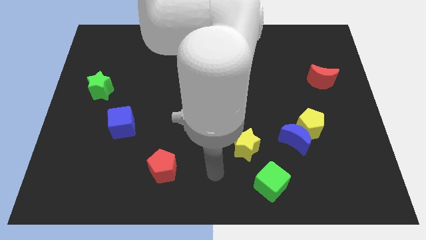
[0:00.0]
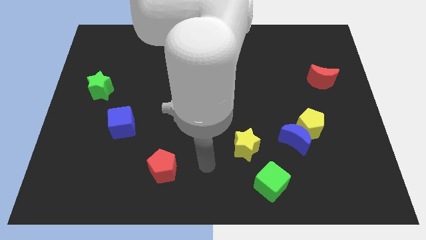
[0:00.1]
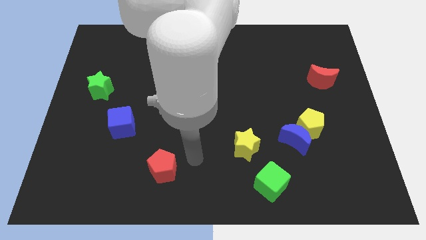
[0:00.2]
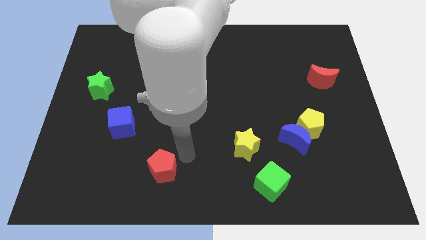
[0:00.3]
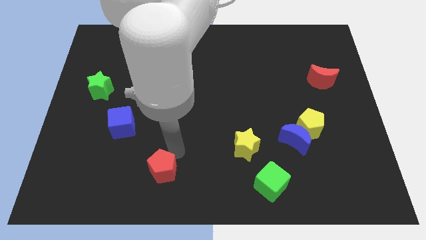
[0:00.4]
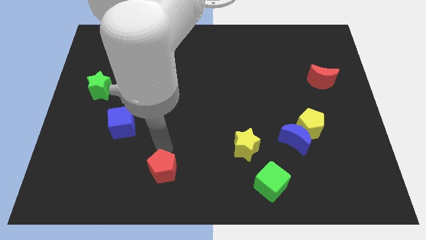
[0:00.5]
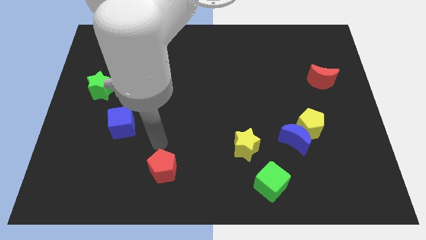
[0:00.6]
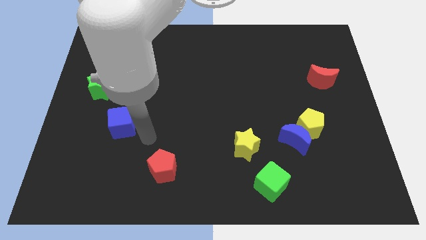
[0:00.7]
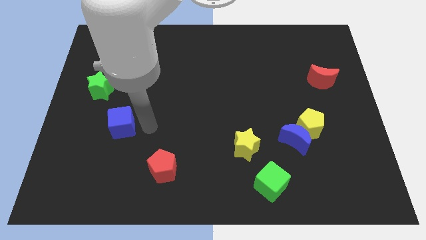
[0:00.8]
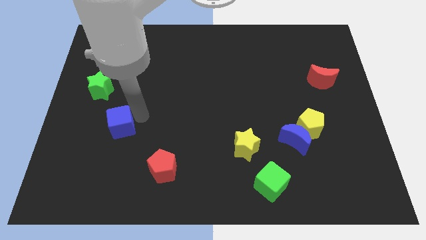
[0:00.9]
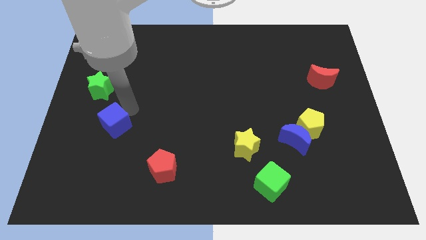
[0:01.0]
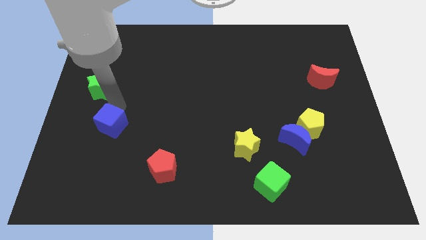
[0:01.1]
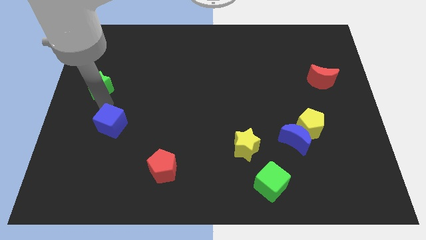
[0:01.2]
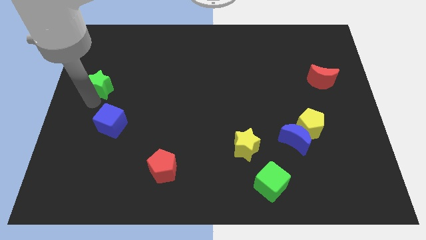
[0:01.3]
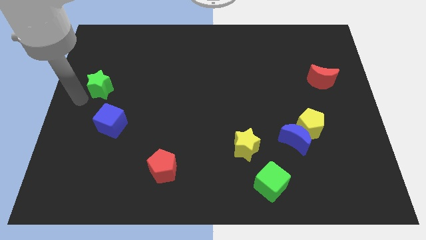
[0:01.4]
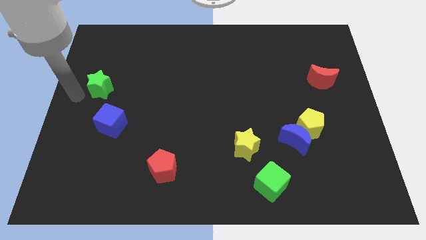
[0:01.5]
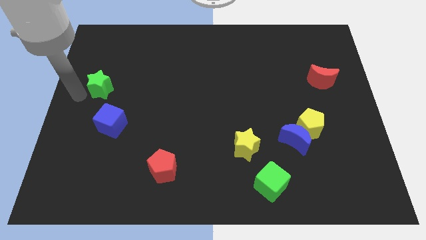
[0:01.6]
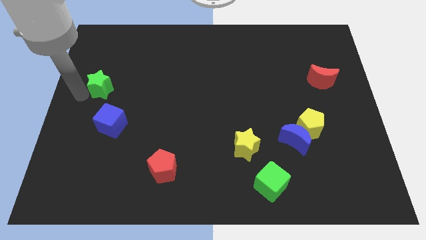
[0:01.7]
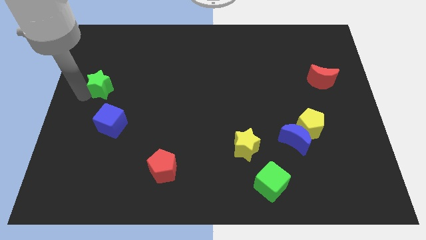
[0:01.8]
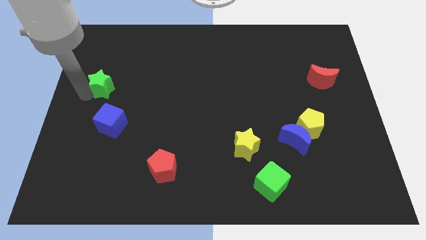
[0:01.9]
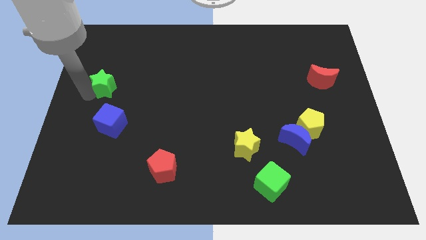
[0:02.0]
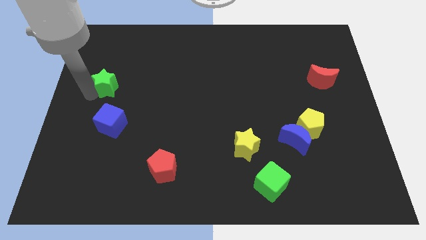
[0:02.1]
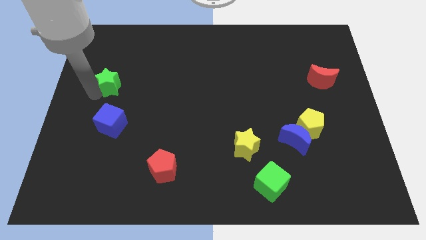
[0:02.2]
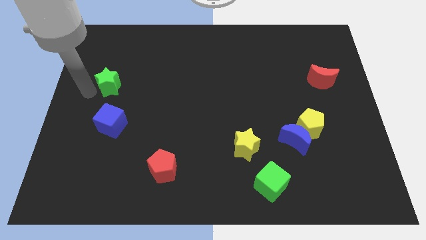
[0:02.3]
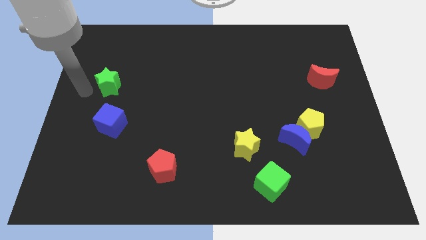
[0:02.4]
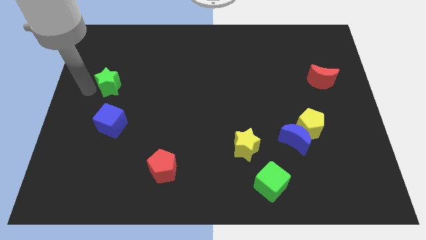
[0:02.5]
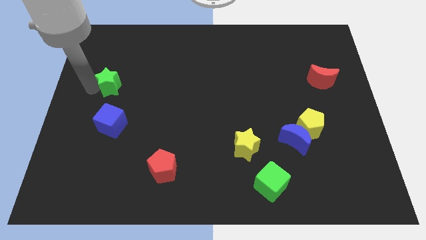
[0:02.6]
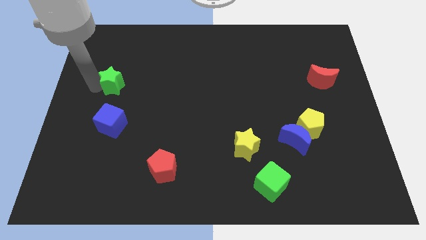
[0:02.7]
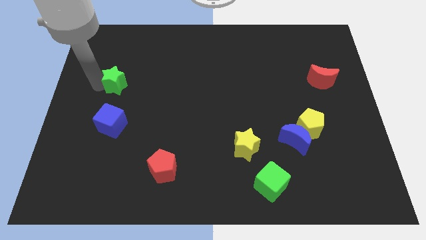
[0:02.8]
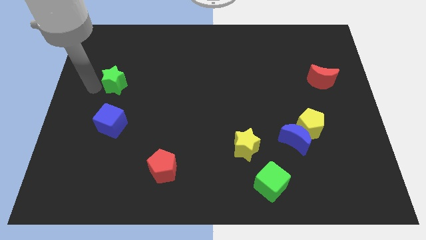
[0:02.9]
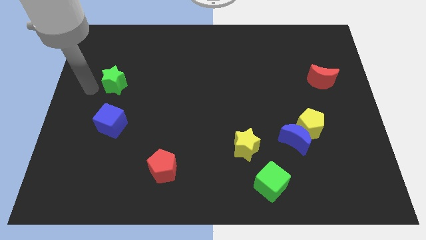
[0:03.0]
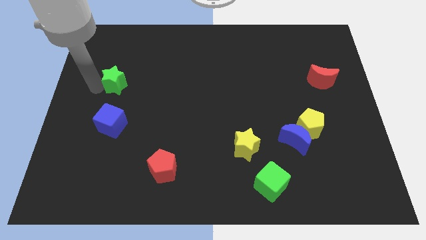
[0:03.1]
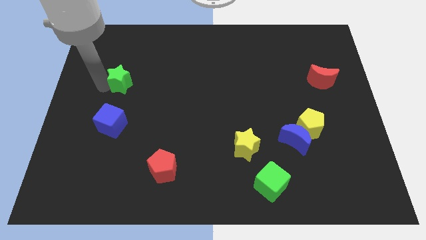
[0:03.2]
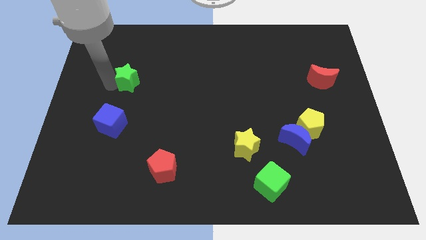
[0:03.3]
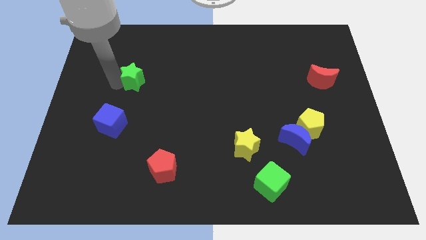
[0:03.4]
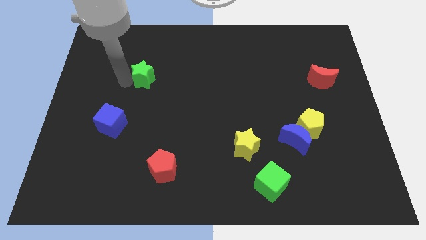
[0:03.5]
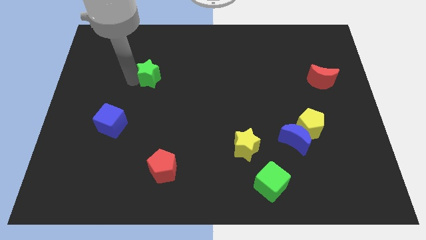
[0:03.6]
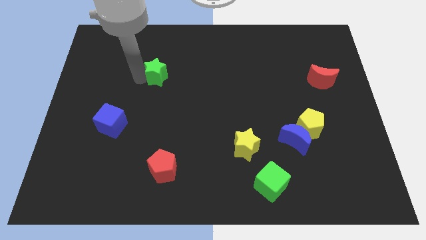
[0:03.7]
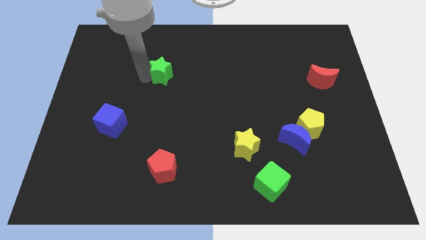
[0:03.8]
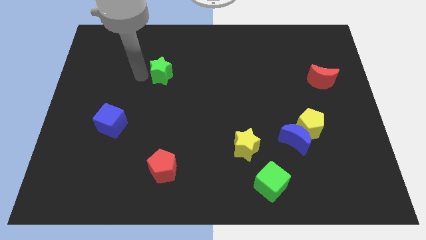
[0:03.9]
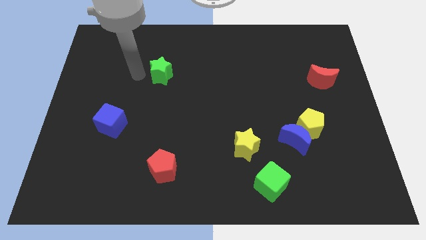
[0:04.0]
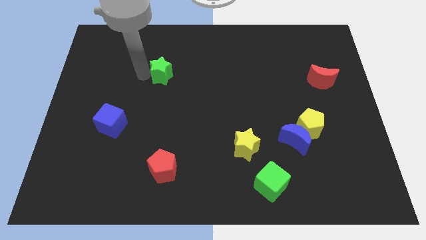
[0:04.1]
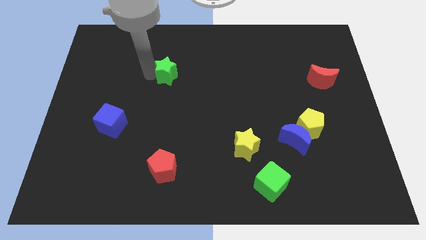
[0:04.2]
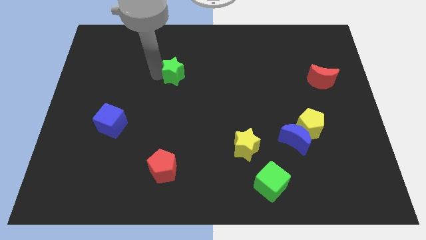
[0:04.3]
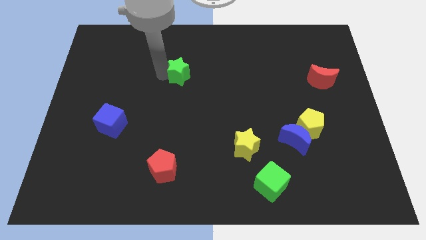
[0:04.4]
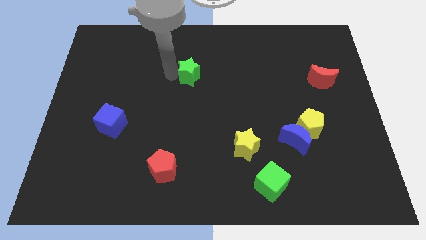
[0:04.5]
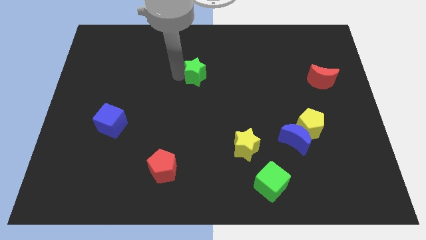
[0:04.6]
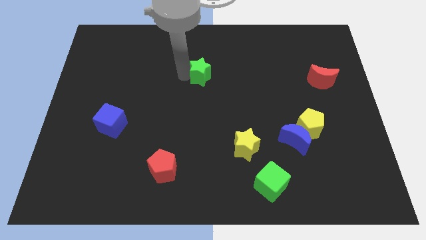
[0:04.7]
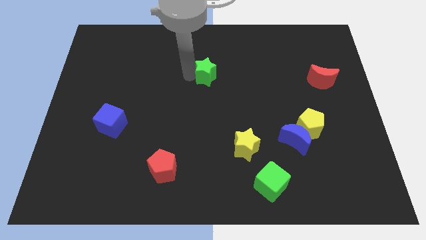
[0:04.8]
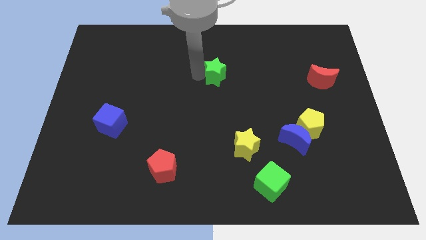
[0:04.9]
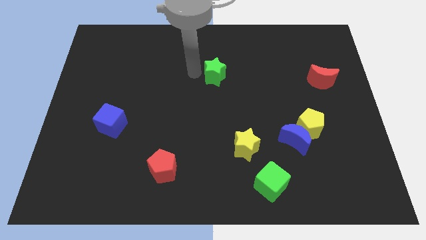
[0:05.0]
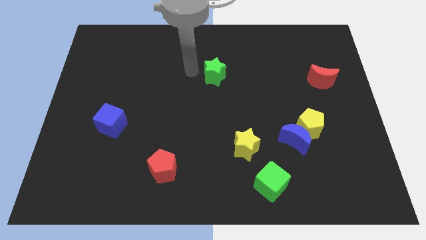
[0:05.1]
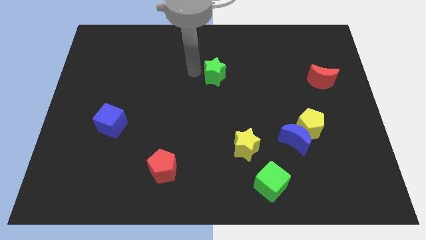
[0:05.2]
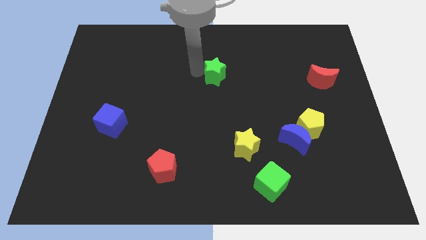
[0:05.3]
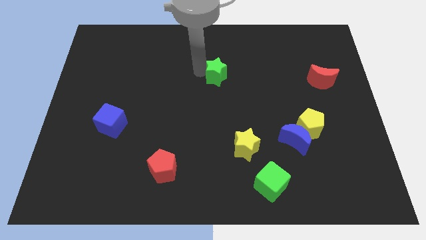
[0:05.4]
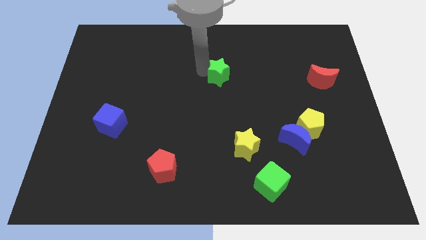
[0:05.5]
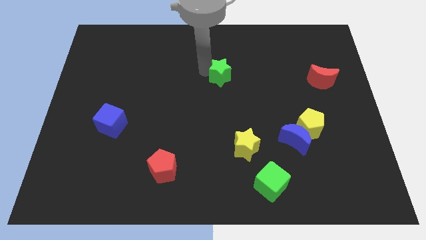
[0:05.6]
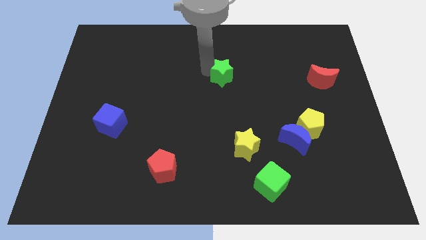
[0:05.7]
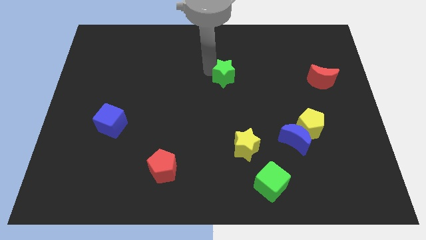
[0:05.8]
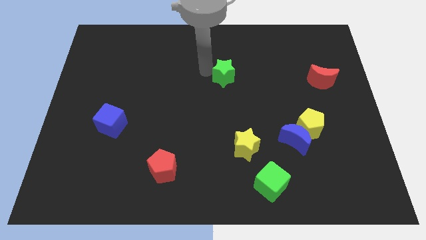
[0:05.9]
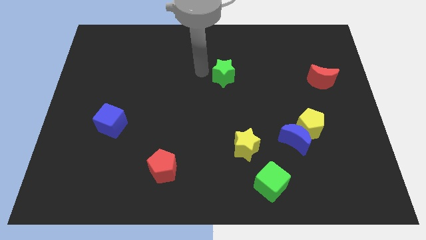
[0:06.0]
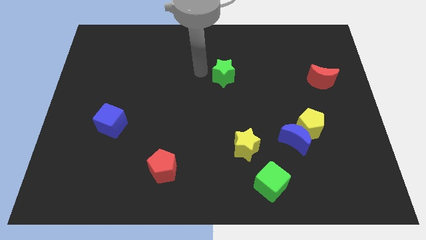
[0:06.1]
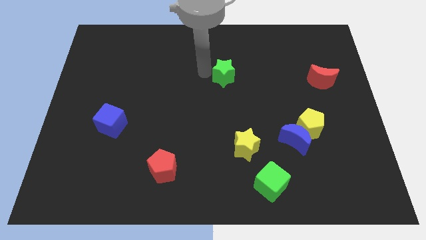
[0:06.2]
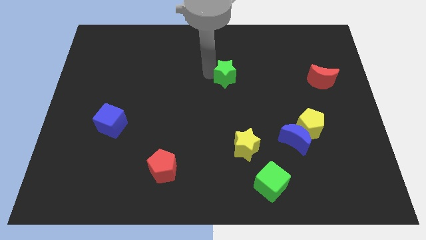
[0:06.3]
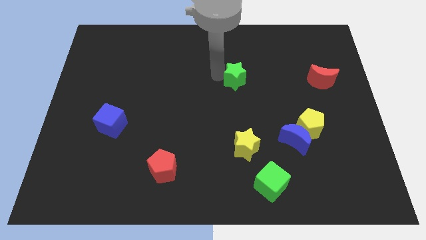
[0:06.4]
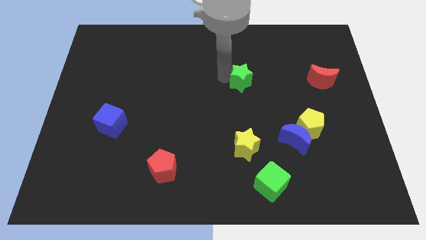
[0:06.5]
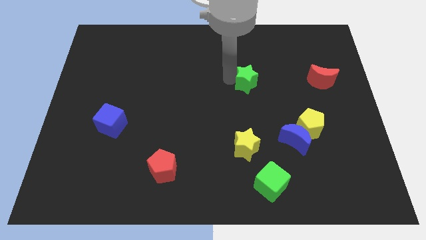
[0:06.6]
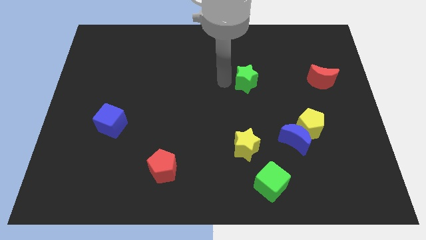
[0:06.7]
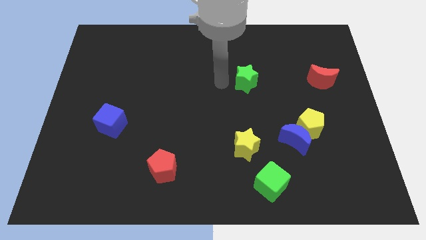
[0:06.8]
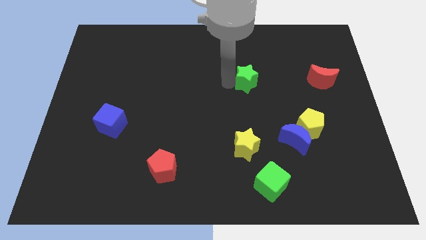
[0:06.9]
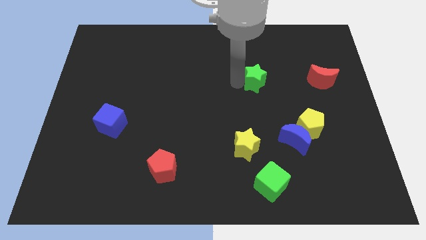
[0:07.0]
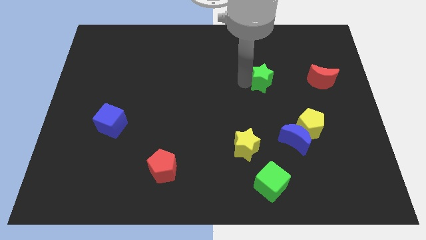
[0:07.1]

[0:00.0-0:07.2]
put the green star left of the red moon
